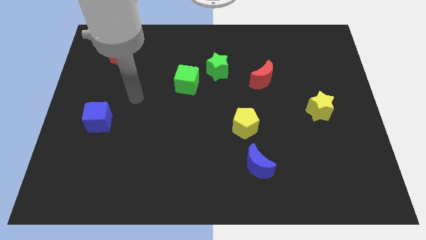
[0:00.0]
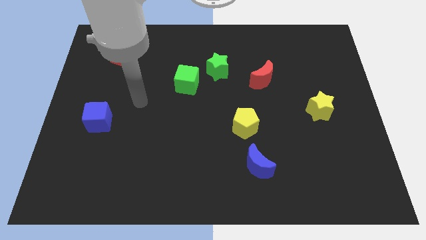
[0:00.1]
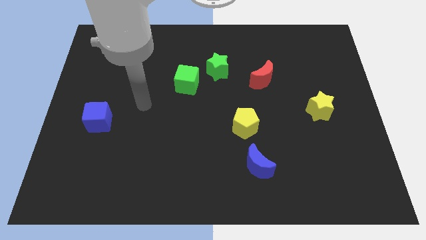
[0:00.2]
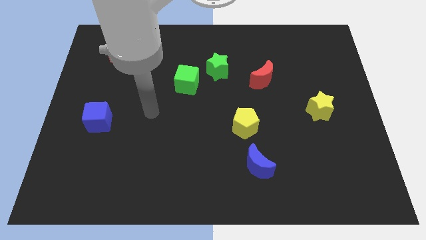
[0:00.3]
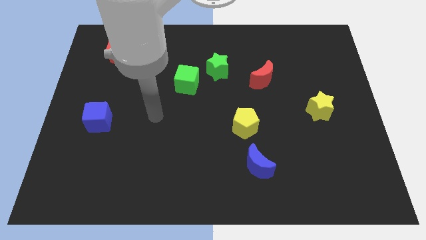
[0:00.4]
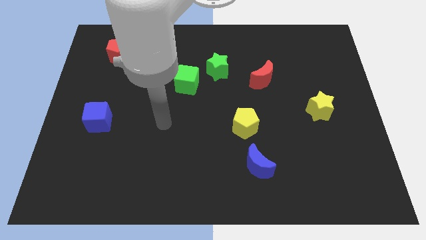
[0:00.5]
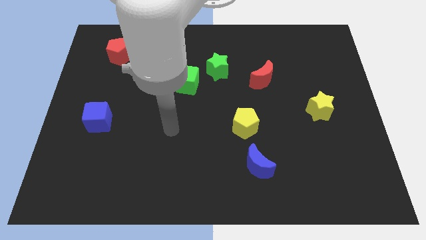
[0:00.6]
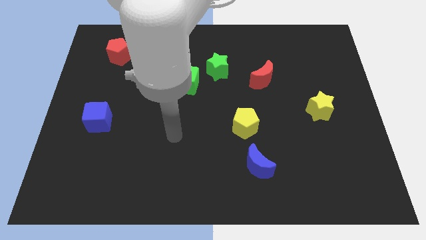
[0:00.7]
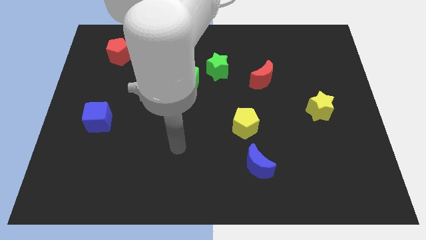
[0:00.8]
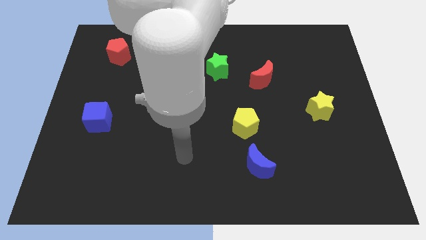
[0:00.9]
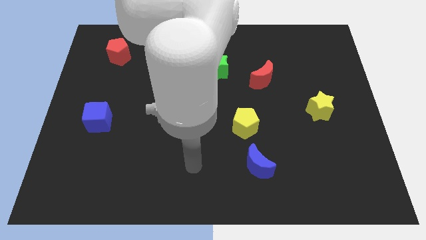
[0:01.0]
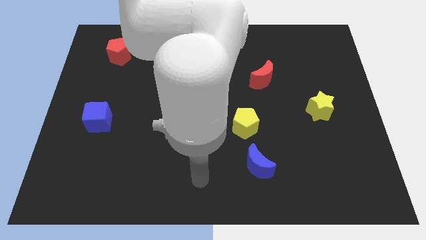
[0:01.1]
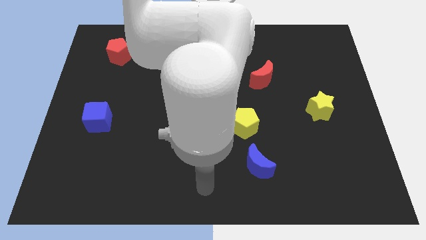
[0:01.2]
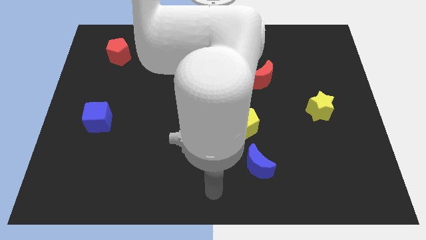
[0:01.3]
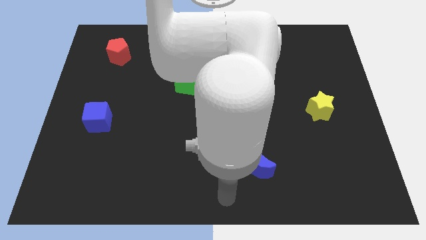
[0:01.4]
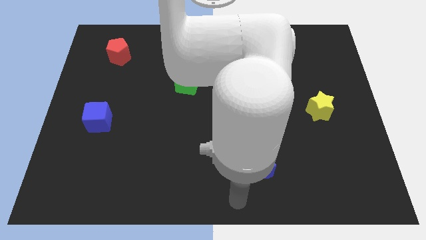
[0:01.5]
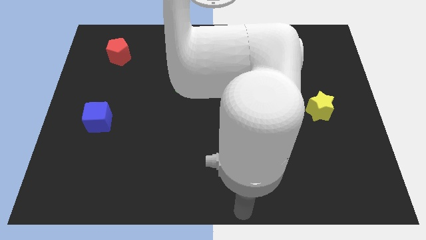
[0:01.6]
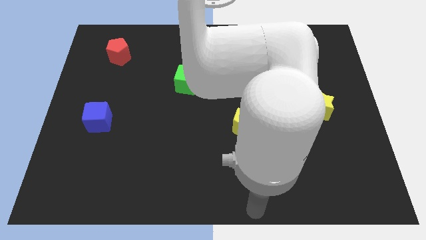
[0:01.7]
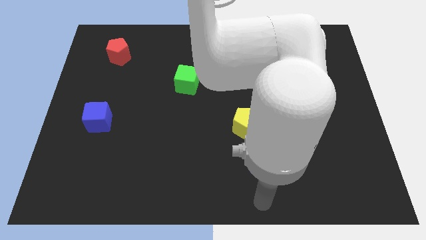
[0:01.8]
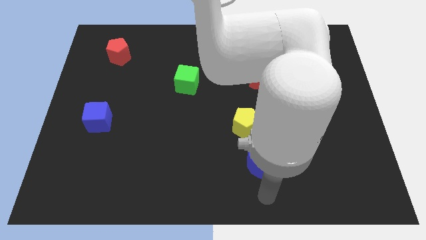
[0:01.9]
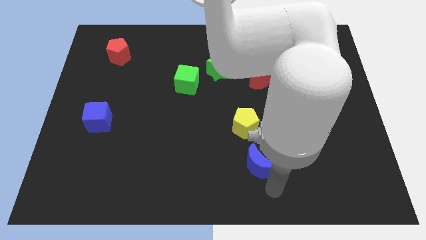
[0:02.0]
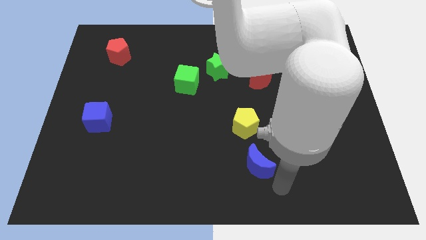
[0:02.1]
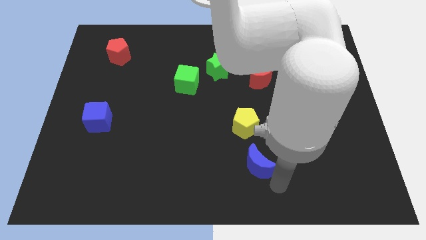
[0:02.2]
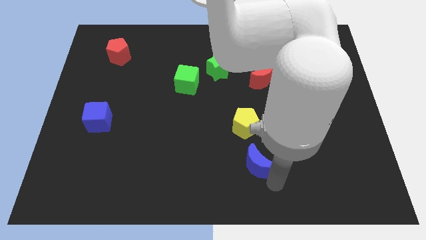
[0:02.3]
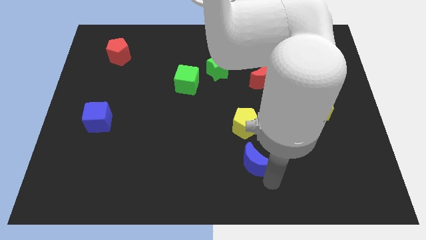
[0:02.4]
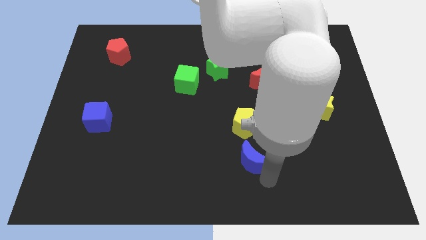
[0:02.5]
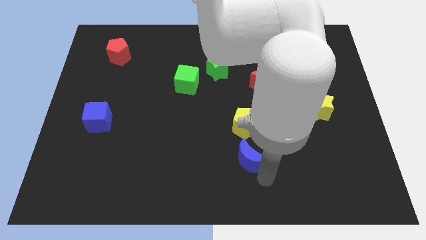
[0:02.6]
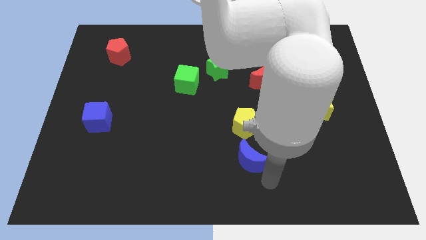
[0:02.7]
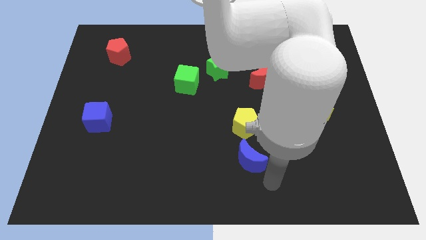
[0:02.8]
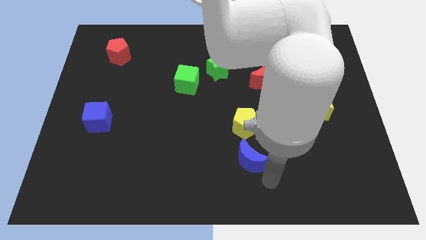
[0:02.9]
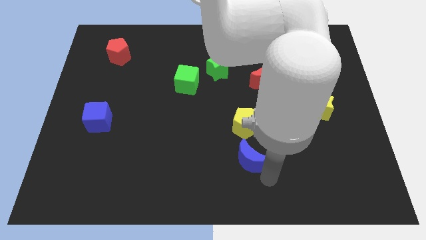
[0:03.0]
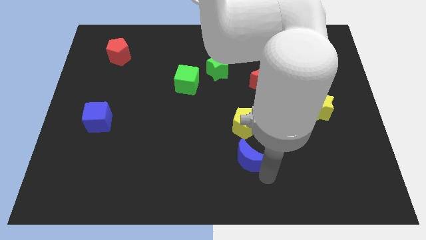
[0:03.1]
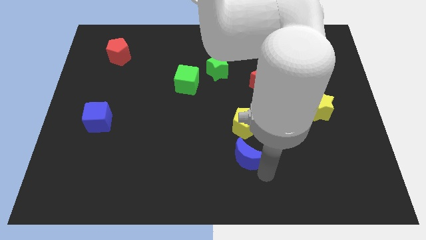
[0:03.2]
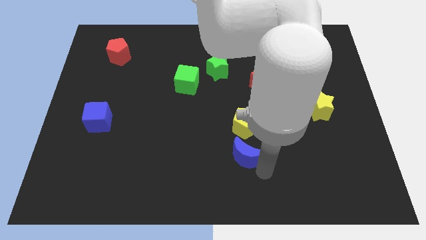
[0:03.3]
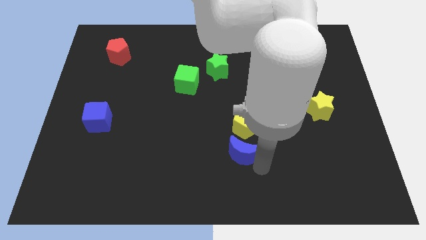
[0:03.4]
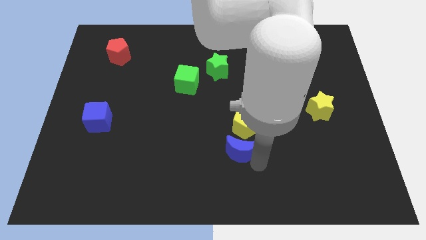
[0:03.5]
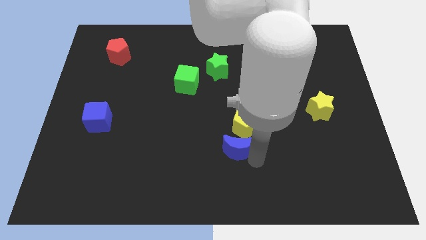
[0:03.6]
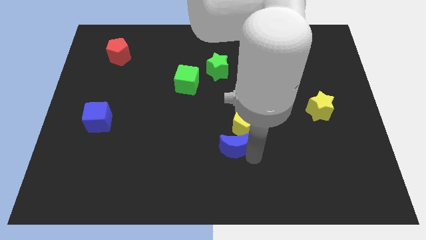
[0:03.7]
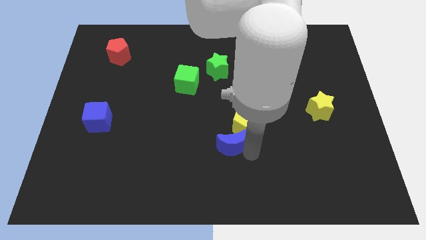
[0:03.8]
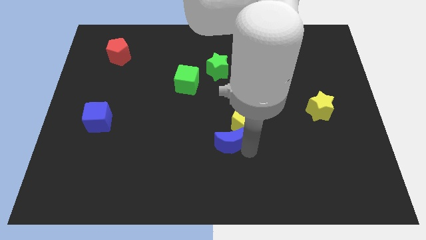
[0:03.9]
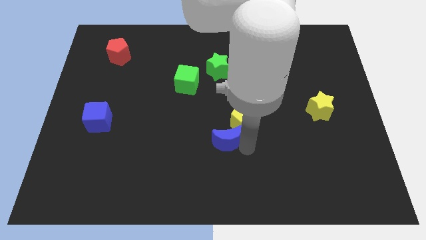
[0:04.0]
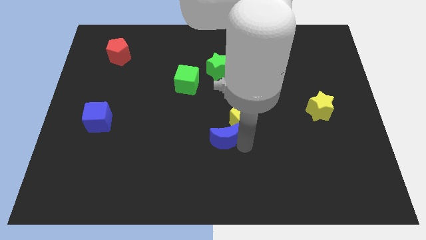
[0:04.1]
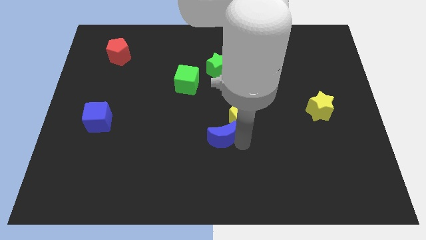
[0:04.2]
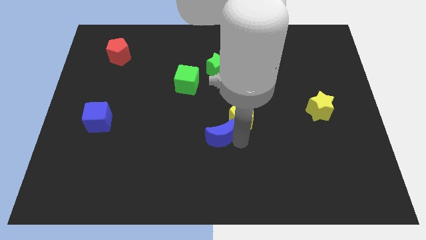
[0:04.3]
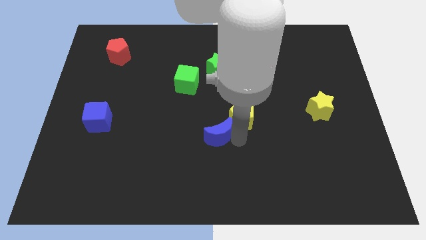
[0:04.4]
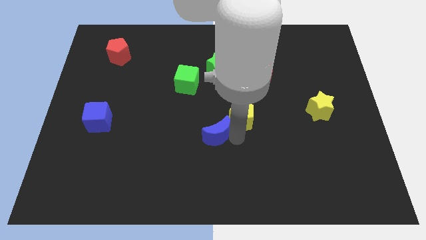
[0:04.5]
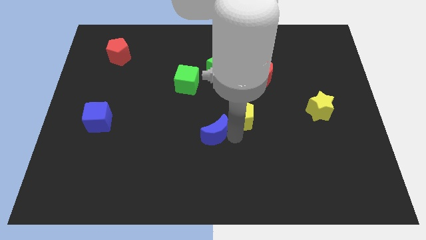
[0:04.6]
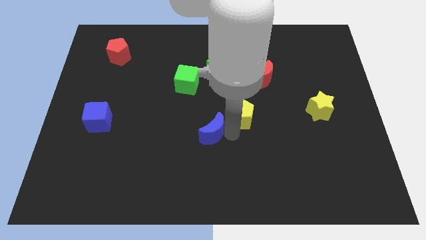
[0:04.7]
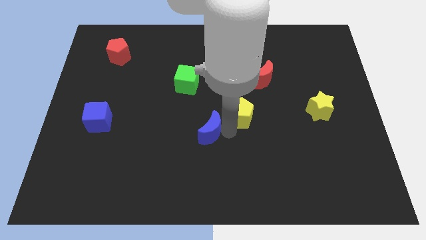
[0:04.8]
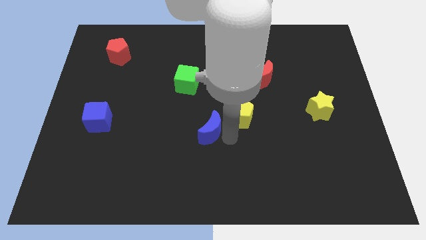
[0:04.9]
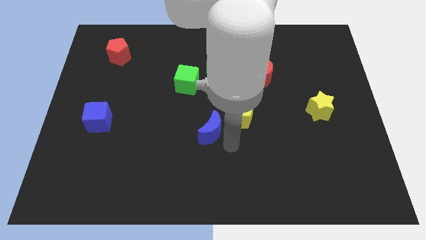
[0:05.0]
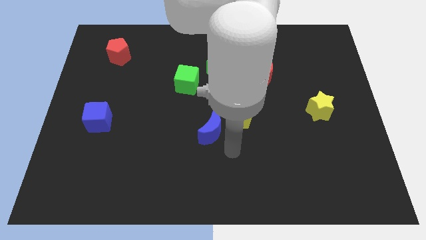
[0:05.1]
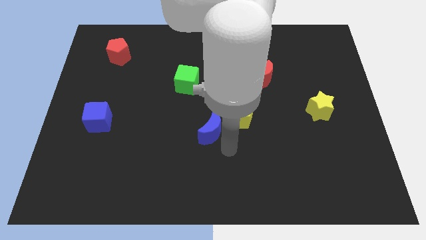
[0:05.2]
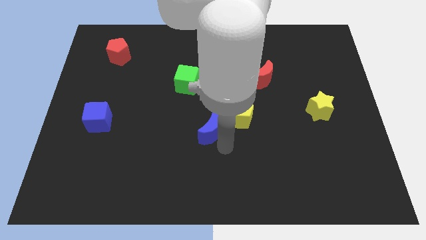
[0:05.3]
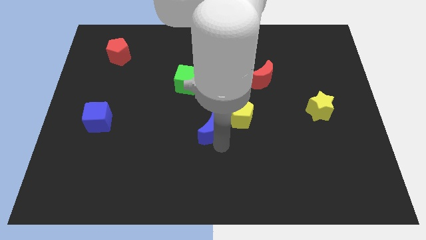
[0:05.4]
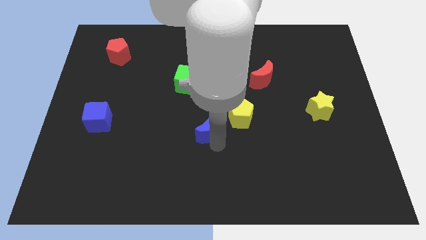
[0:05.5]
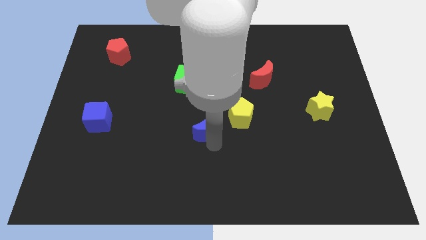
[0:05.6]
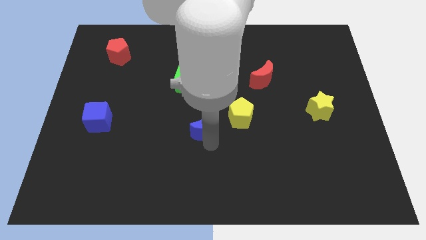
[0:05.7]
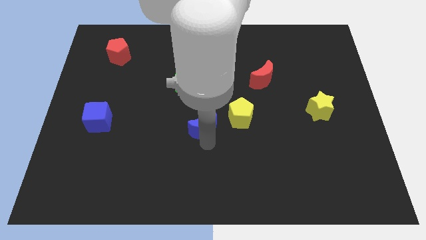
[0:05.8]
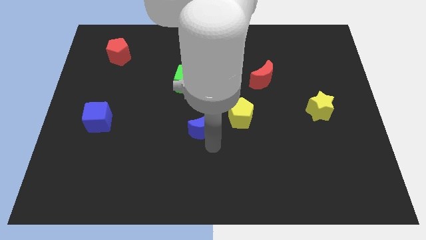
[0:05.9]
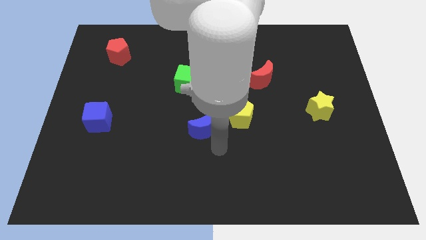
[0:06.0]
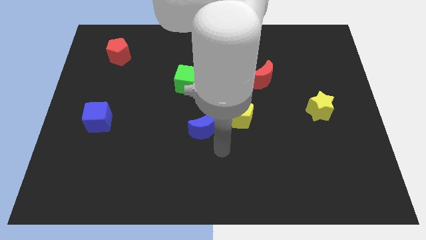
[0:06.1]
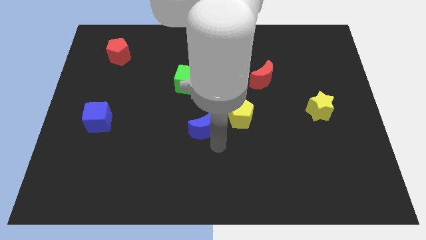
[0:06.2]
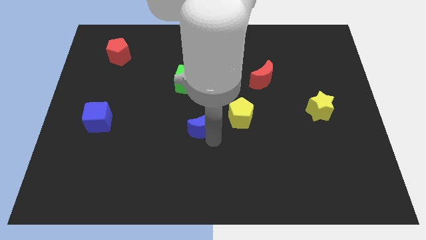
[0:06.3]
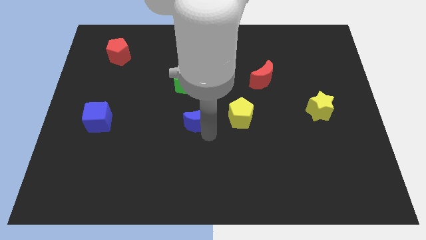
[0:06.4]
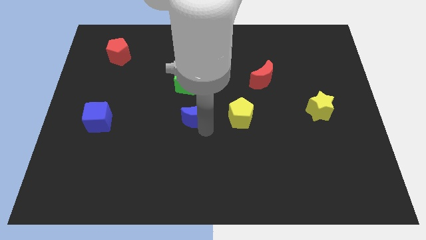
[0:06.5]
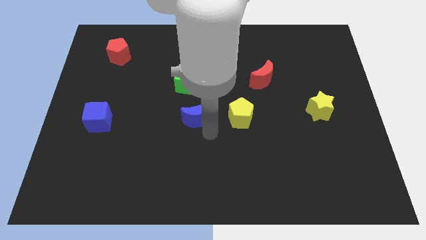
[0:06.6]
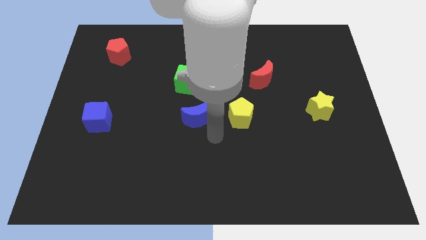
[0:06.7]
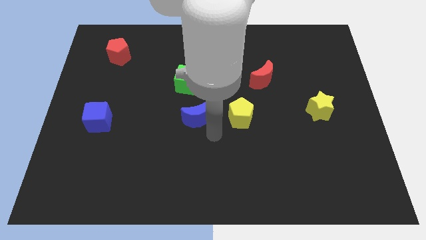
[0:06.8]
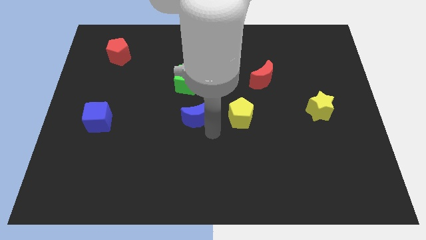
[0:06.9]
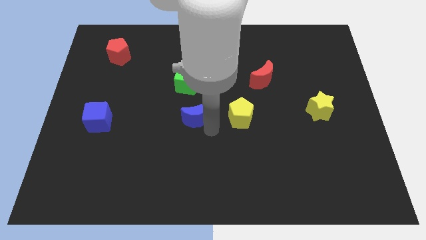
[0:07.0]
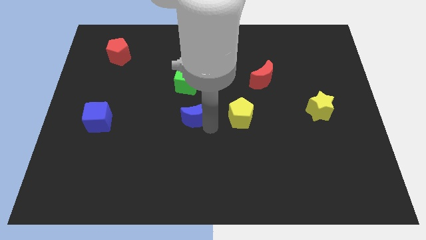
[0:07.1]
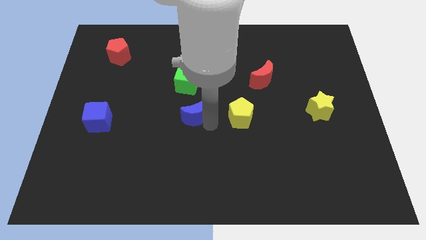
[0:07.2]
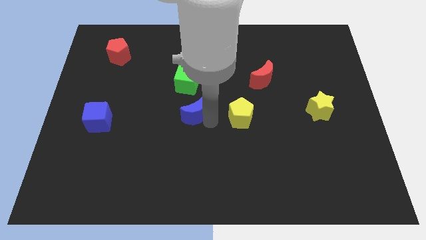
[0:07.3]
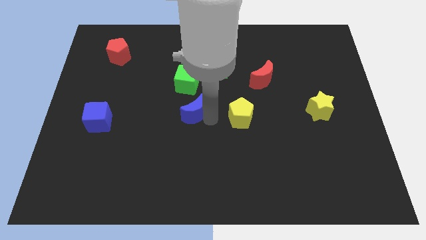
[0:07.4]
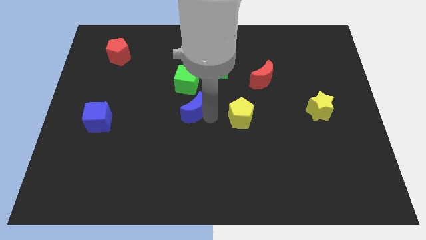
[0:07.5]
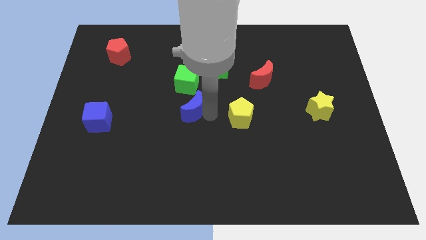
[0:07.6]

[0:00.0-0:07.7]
push the blue moon up and to the left

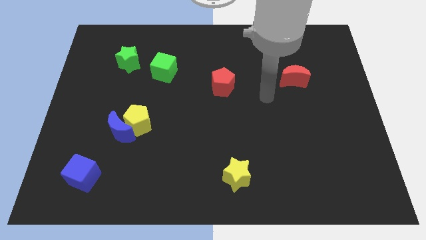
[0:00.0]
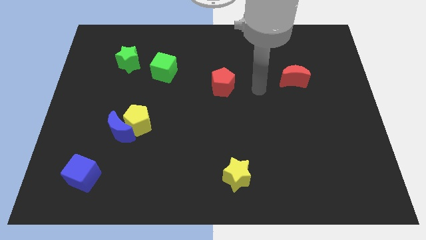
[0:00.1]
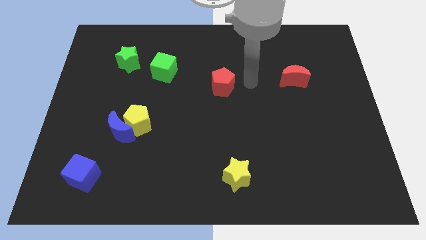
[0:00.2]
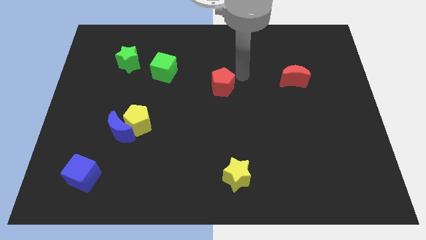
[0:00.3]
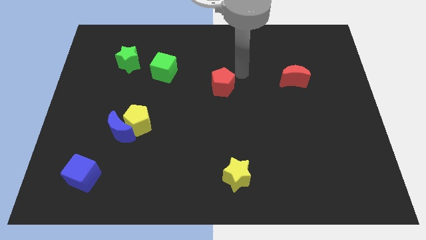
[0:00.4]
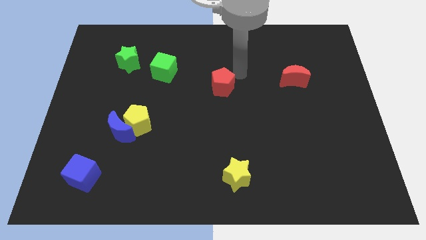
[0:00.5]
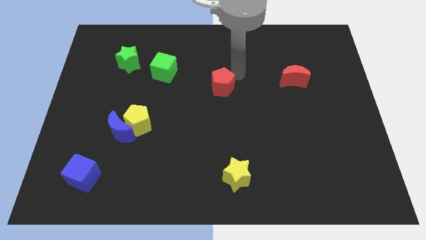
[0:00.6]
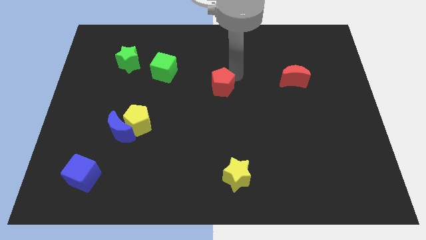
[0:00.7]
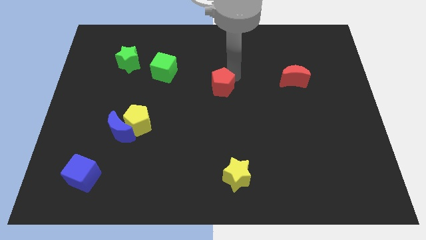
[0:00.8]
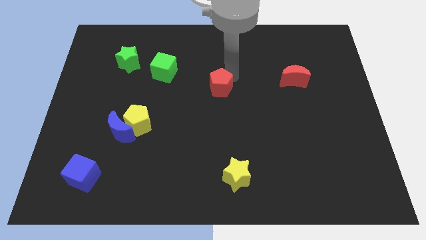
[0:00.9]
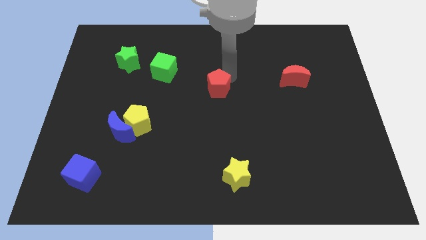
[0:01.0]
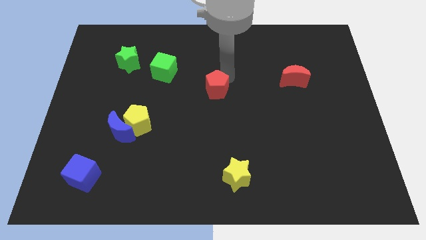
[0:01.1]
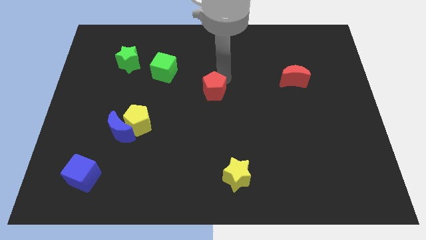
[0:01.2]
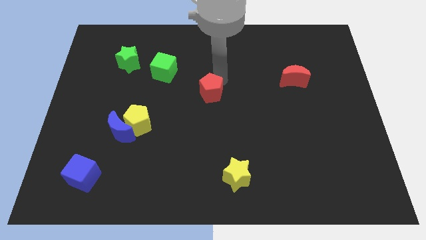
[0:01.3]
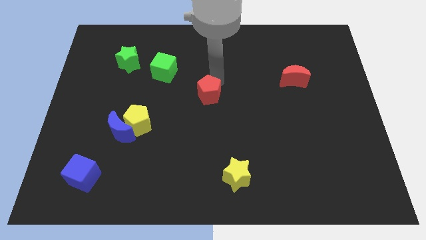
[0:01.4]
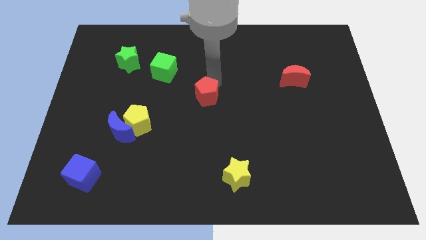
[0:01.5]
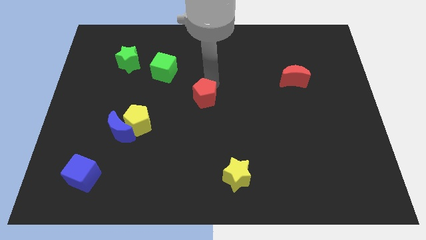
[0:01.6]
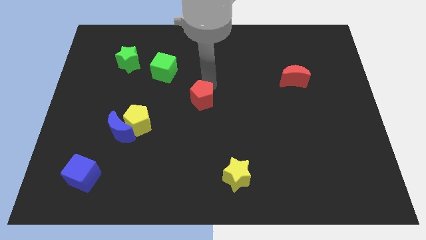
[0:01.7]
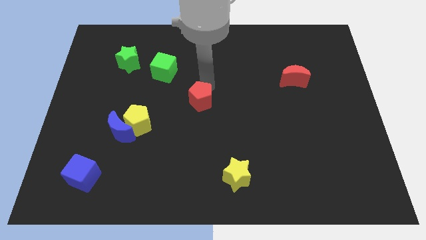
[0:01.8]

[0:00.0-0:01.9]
slightly push the red pentagon diagonally down and to the left
